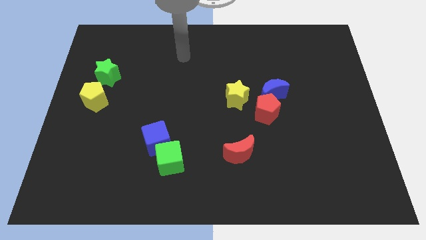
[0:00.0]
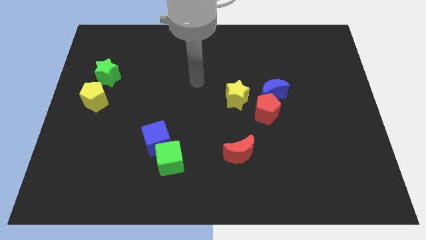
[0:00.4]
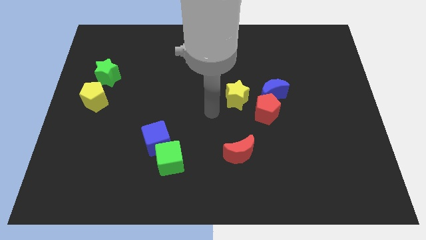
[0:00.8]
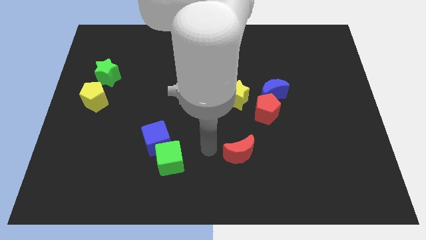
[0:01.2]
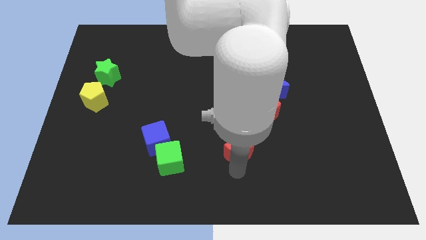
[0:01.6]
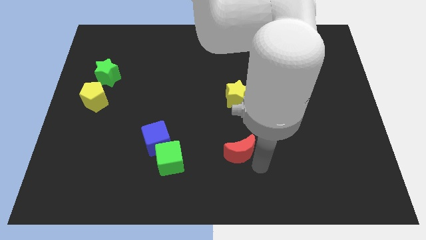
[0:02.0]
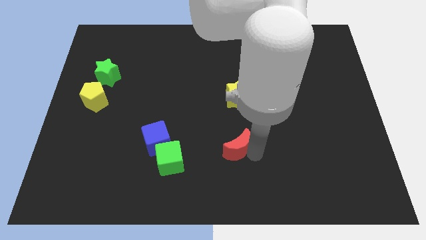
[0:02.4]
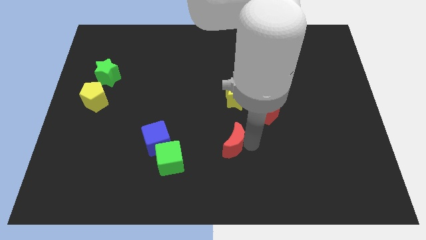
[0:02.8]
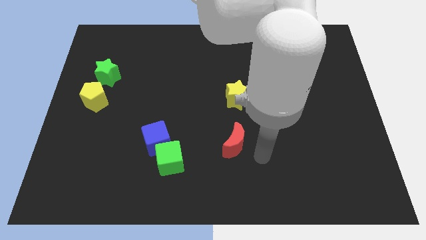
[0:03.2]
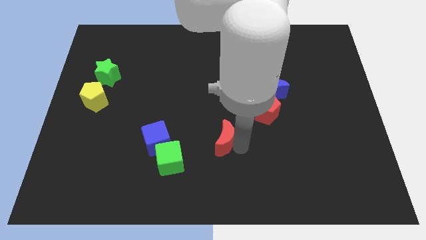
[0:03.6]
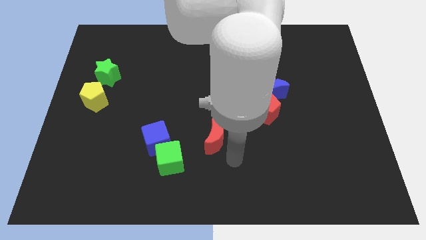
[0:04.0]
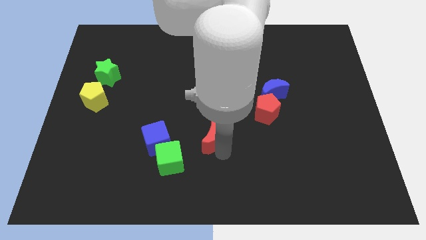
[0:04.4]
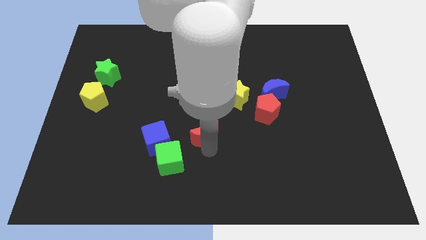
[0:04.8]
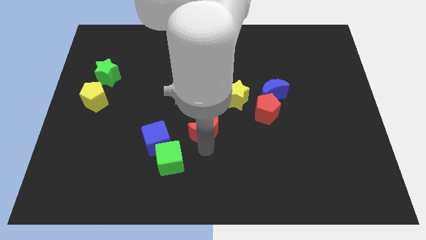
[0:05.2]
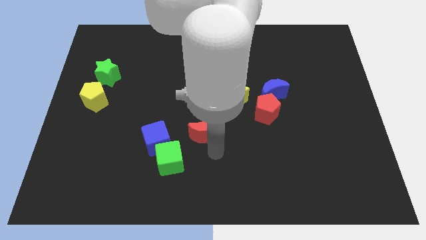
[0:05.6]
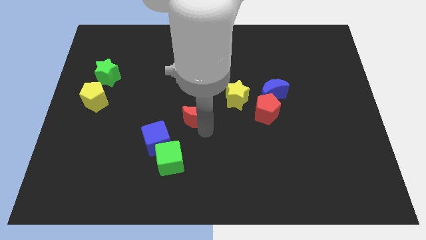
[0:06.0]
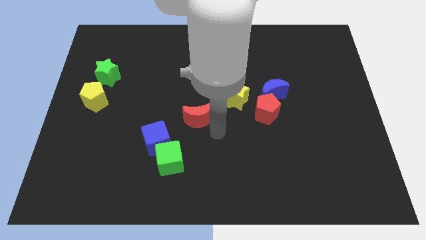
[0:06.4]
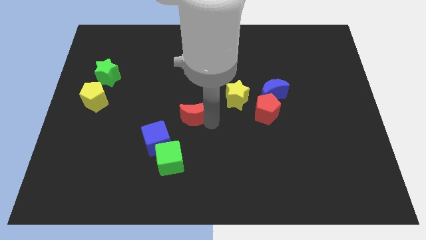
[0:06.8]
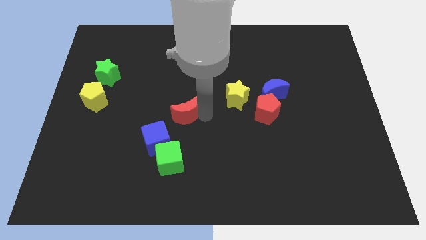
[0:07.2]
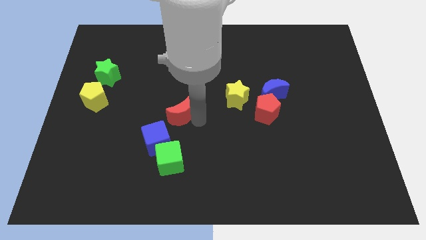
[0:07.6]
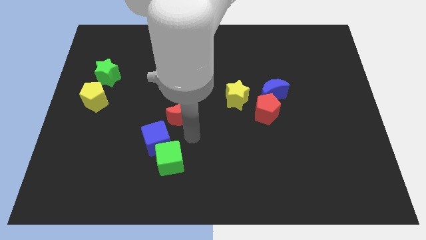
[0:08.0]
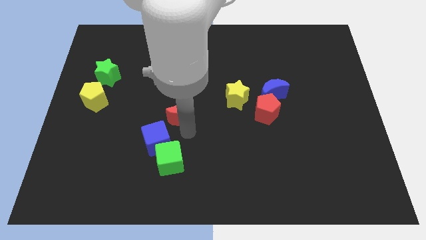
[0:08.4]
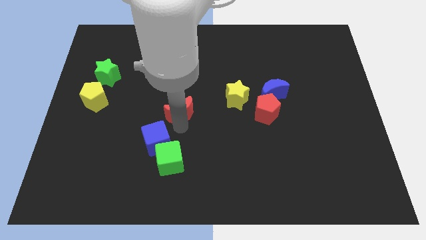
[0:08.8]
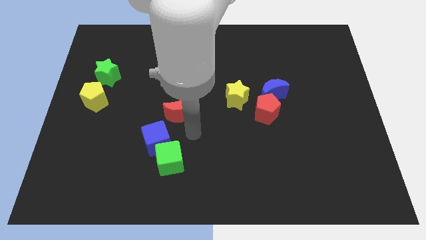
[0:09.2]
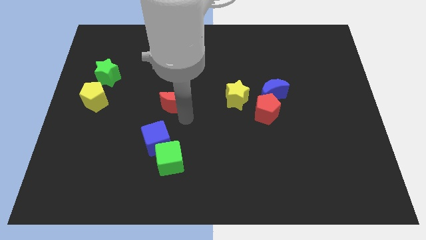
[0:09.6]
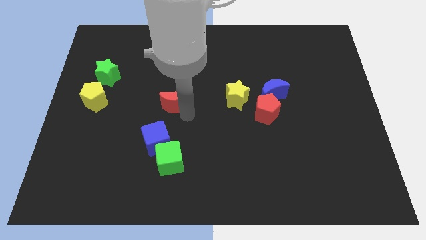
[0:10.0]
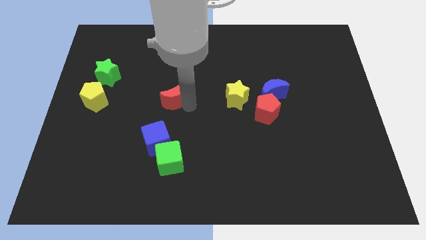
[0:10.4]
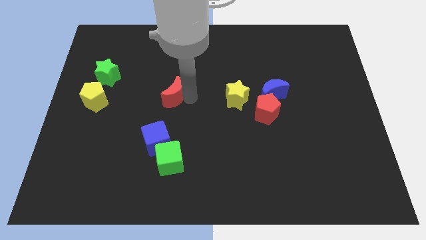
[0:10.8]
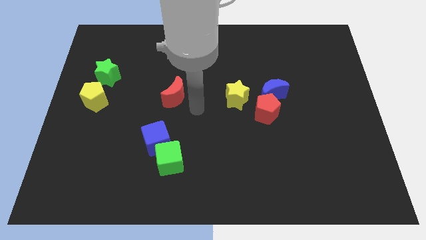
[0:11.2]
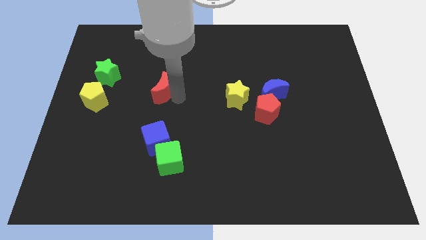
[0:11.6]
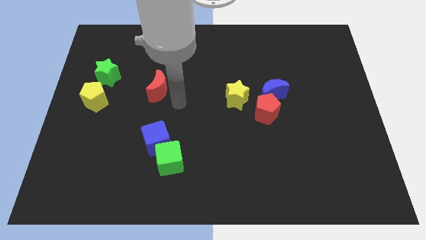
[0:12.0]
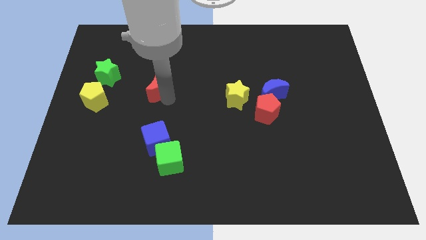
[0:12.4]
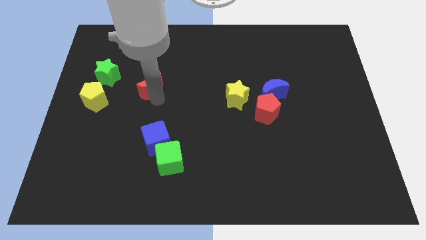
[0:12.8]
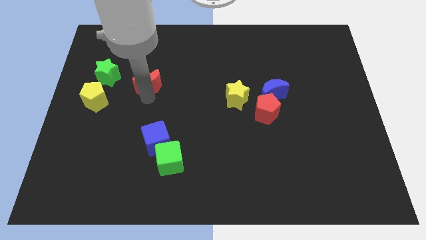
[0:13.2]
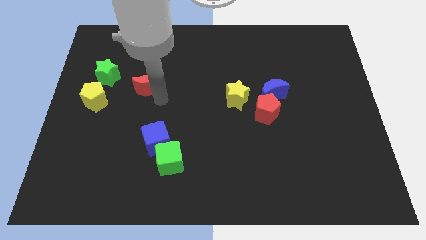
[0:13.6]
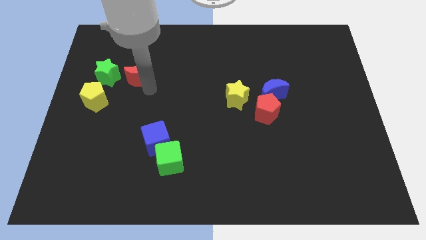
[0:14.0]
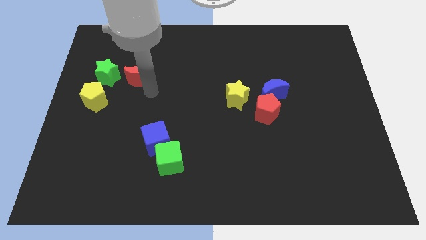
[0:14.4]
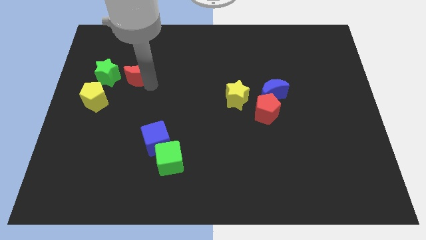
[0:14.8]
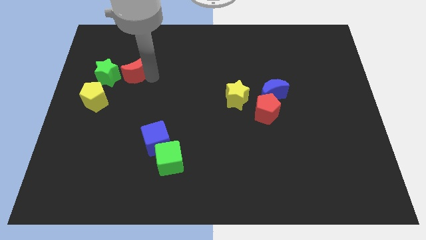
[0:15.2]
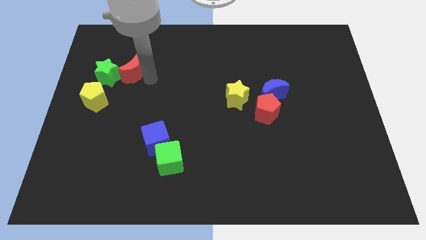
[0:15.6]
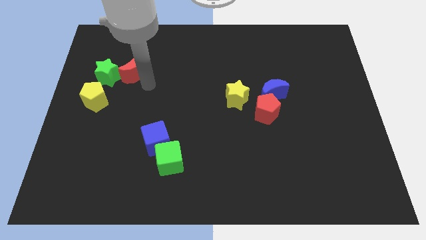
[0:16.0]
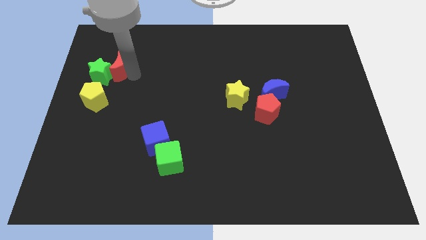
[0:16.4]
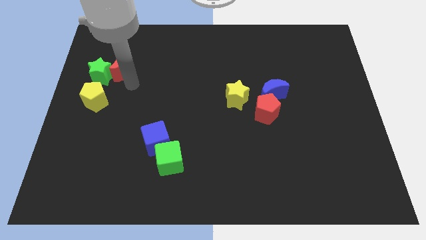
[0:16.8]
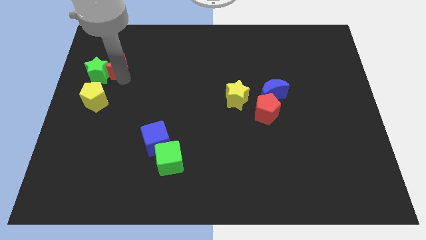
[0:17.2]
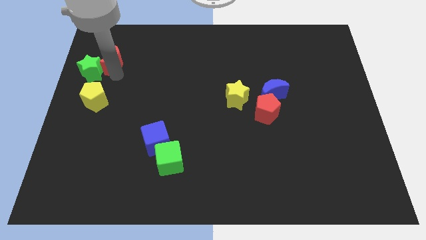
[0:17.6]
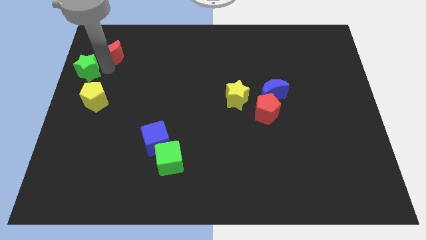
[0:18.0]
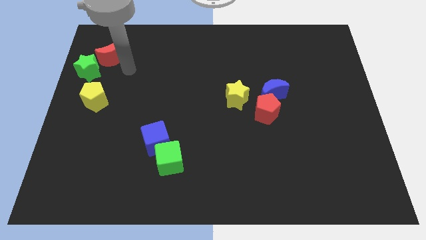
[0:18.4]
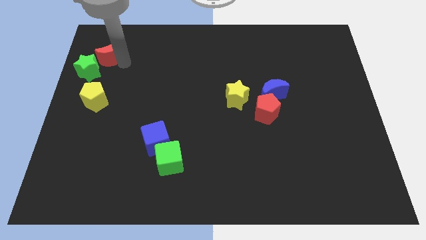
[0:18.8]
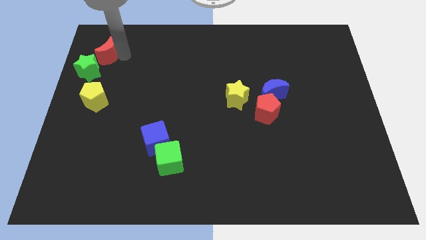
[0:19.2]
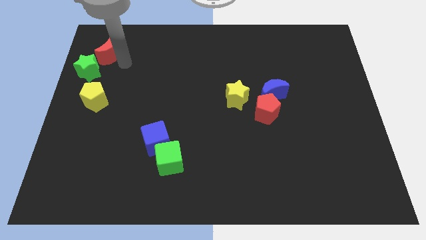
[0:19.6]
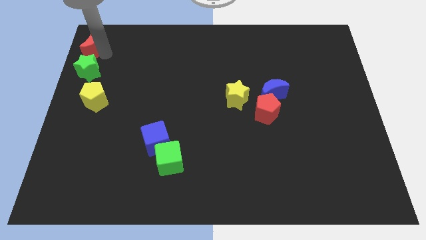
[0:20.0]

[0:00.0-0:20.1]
push the red moon to the upper left corner
